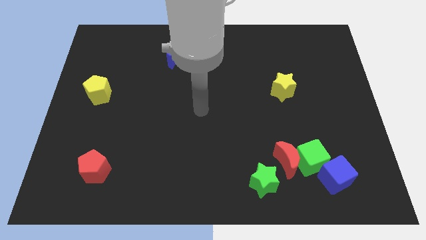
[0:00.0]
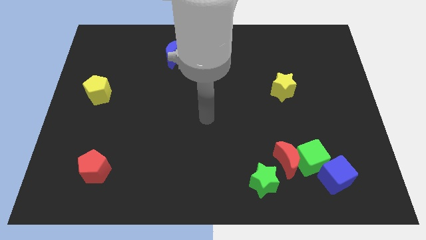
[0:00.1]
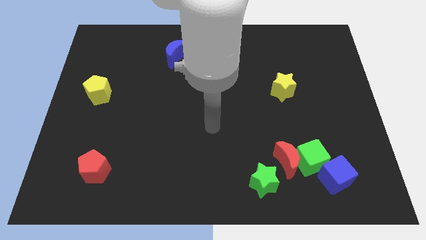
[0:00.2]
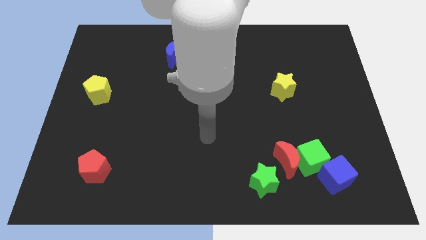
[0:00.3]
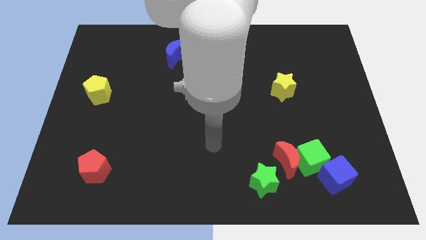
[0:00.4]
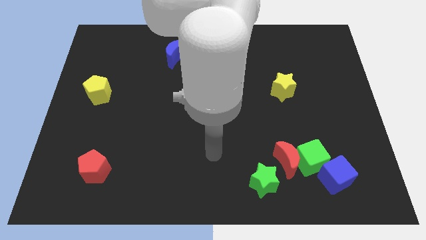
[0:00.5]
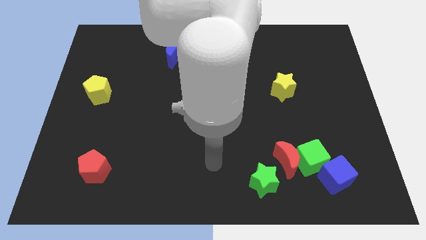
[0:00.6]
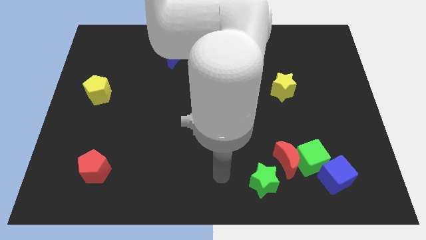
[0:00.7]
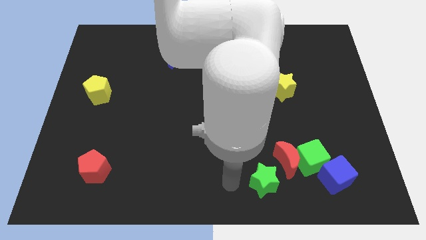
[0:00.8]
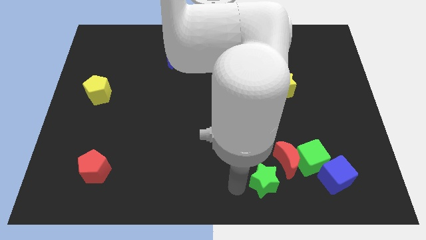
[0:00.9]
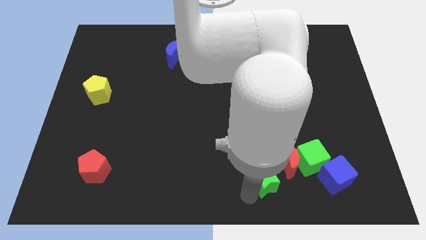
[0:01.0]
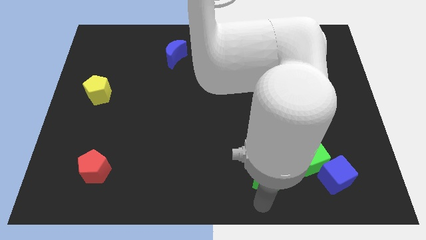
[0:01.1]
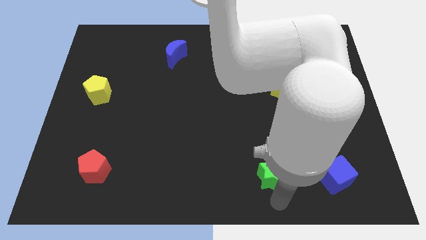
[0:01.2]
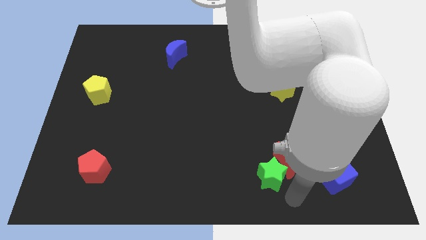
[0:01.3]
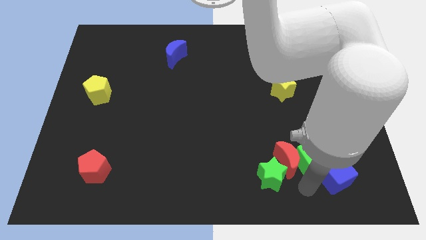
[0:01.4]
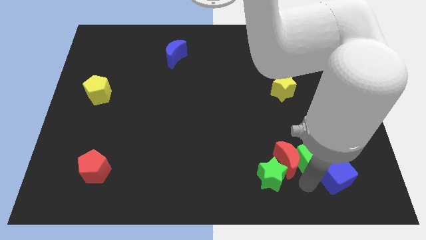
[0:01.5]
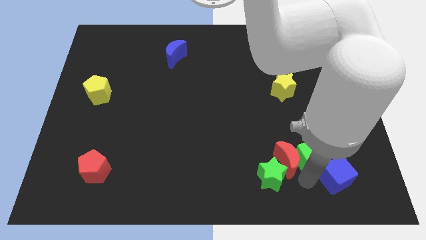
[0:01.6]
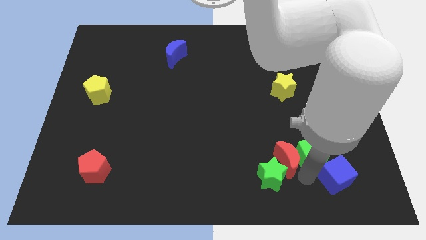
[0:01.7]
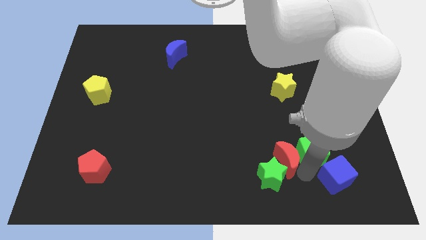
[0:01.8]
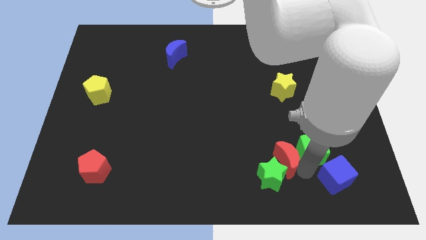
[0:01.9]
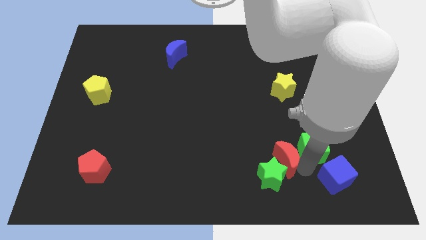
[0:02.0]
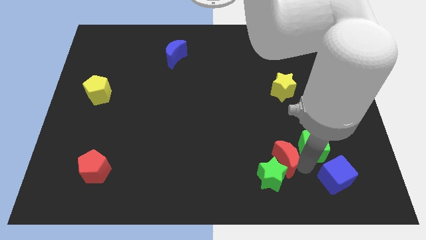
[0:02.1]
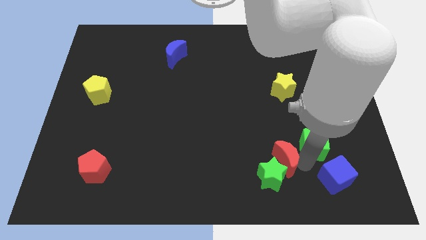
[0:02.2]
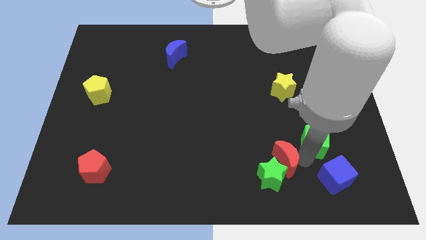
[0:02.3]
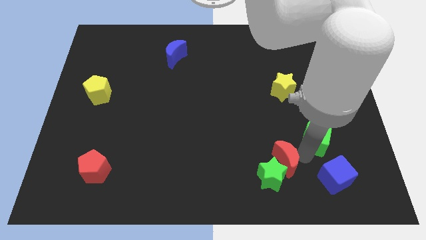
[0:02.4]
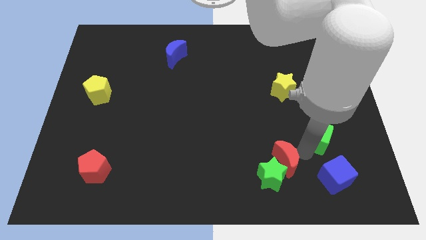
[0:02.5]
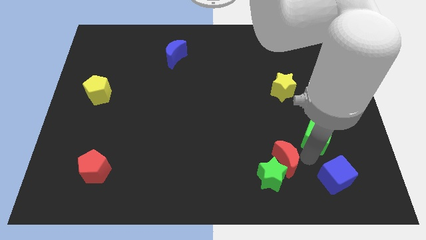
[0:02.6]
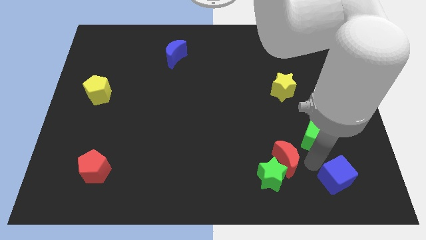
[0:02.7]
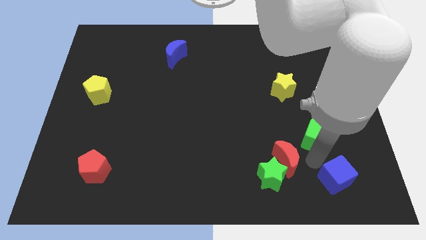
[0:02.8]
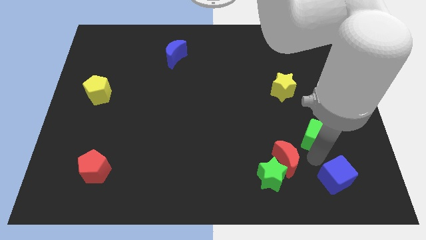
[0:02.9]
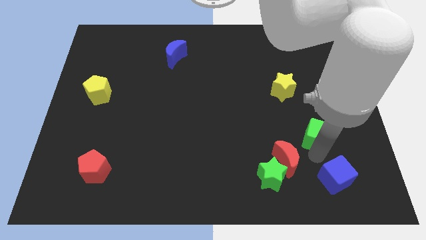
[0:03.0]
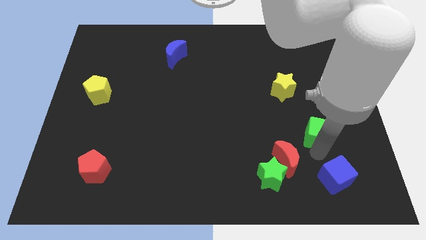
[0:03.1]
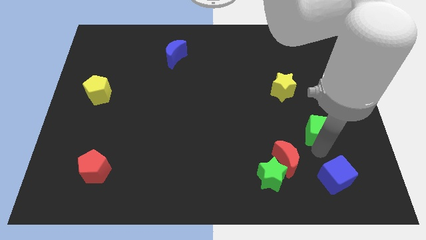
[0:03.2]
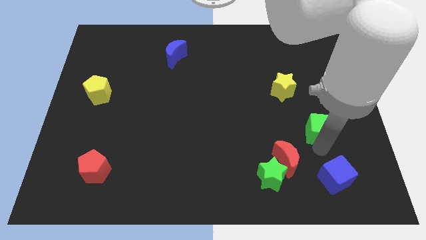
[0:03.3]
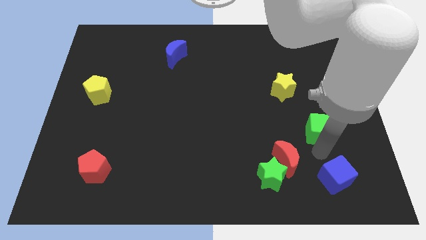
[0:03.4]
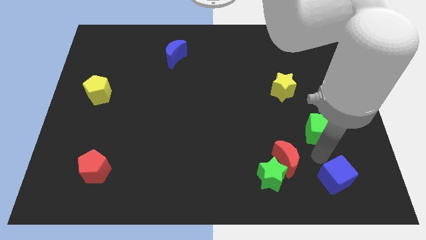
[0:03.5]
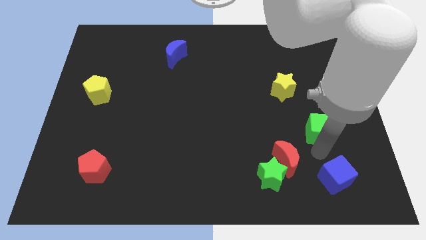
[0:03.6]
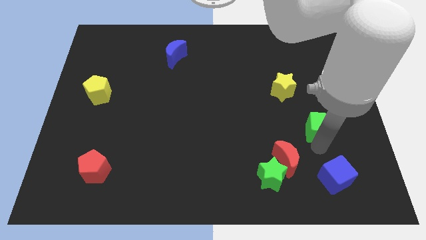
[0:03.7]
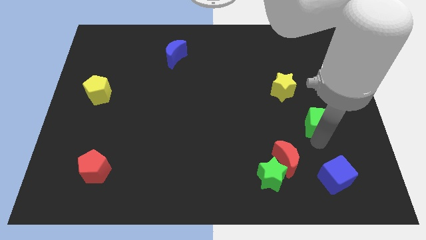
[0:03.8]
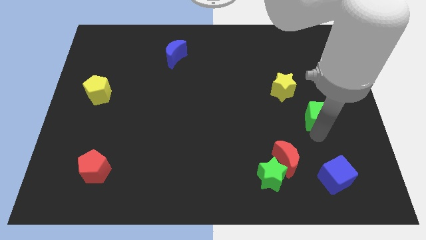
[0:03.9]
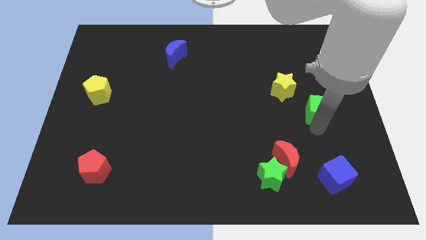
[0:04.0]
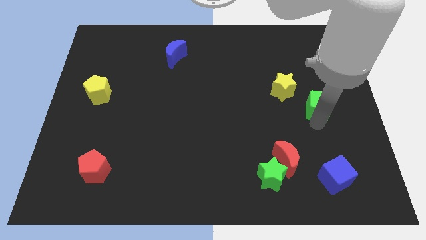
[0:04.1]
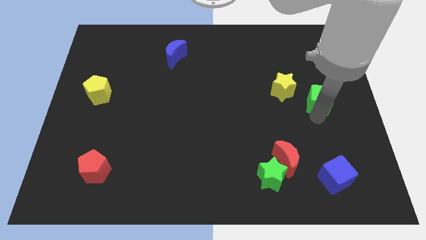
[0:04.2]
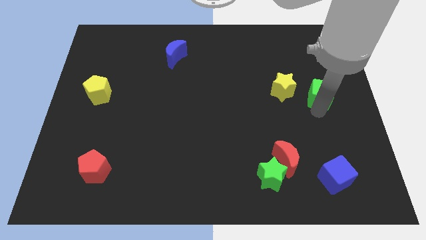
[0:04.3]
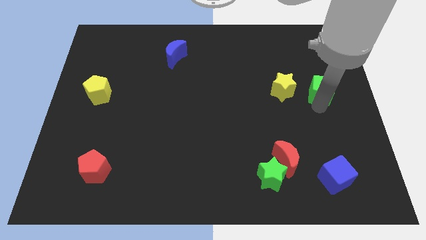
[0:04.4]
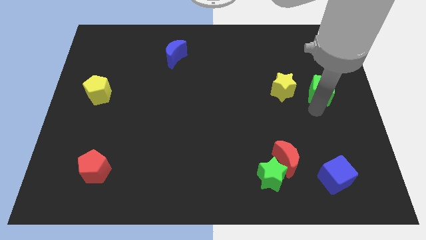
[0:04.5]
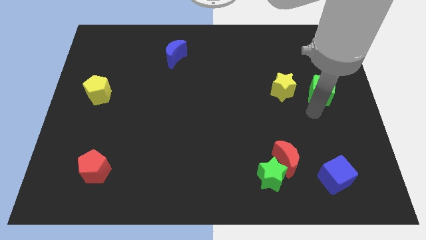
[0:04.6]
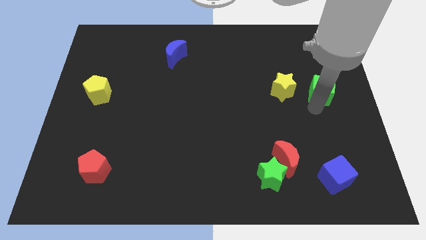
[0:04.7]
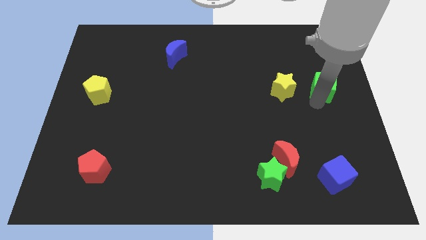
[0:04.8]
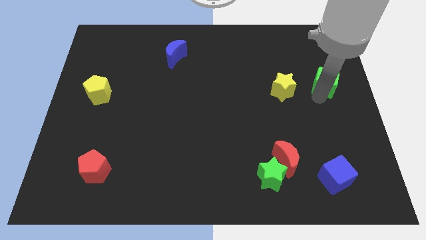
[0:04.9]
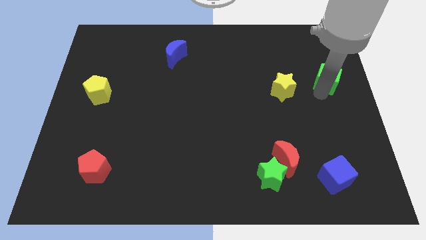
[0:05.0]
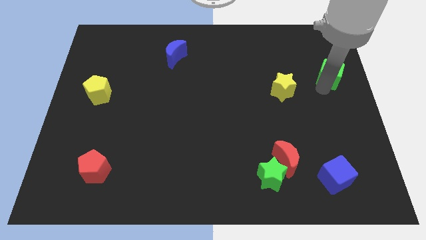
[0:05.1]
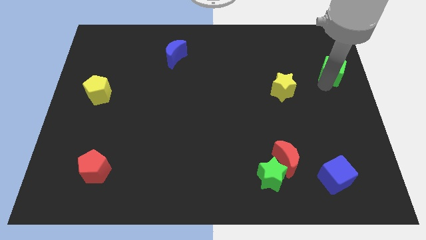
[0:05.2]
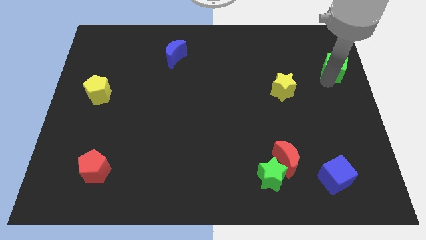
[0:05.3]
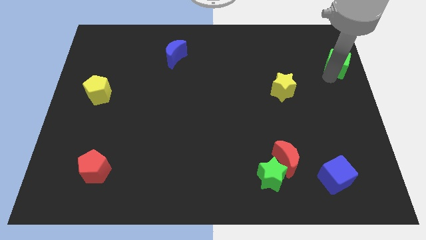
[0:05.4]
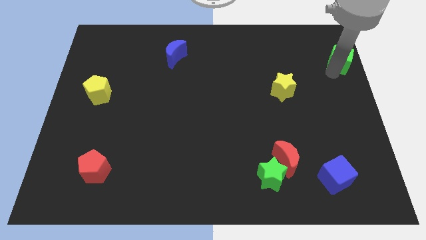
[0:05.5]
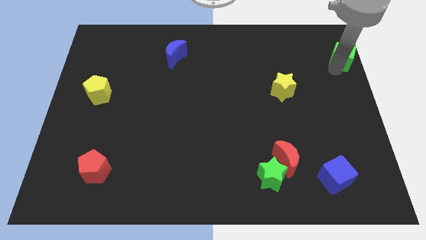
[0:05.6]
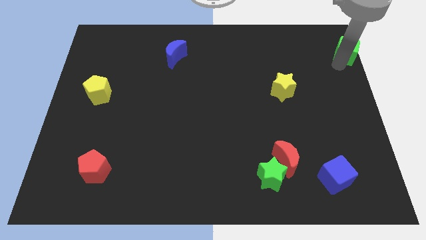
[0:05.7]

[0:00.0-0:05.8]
slide the green cube to the top right of the board

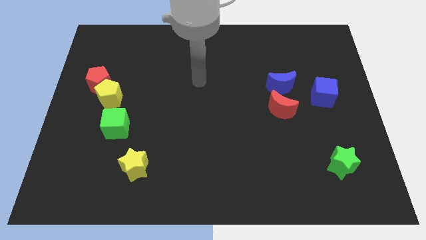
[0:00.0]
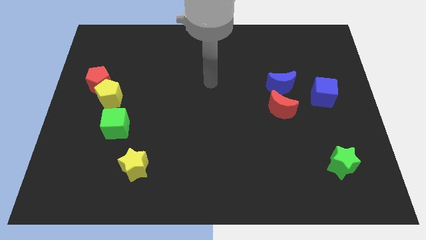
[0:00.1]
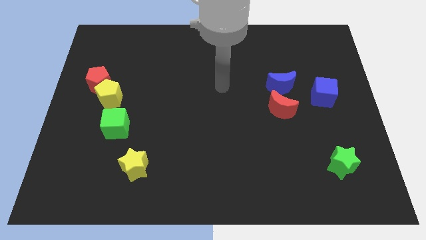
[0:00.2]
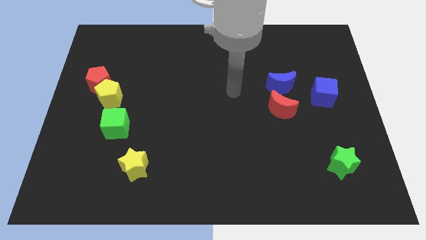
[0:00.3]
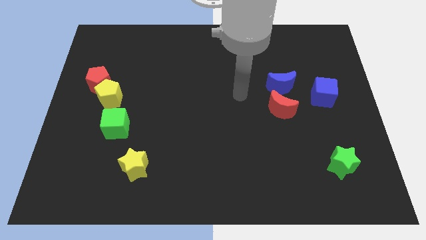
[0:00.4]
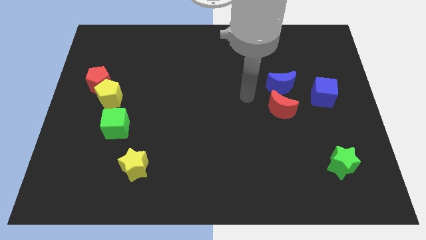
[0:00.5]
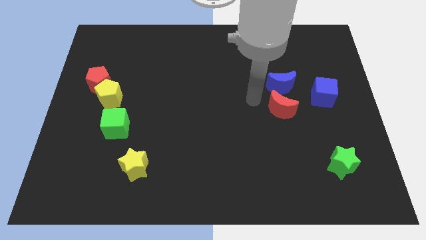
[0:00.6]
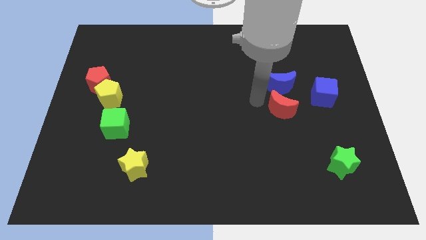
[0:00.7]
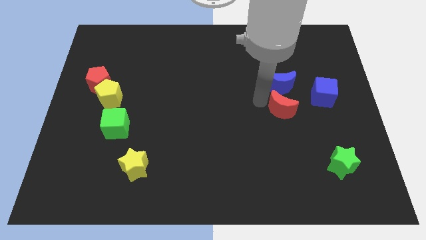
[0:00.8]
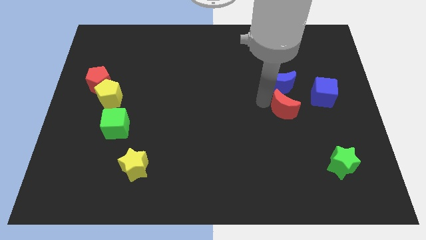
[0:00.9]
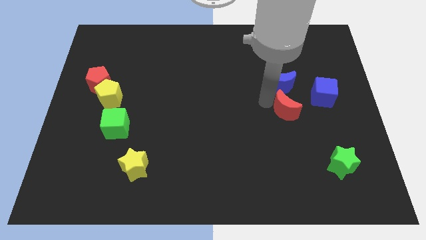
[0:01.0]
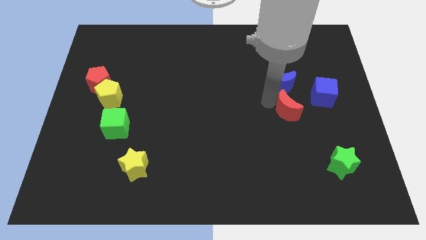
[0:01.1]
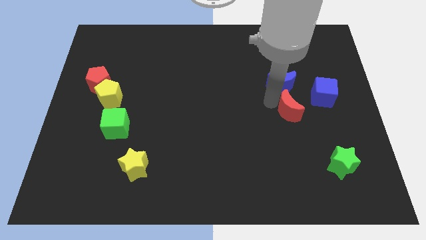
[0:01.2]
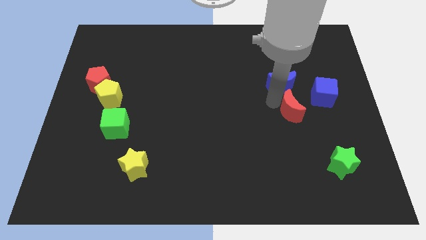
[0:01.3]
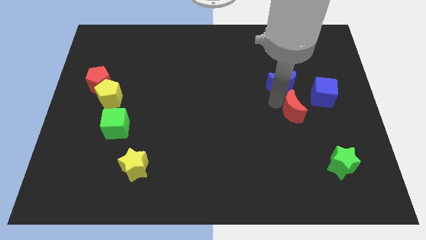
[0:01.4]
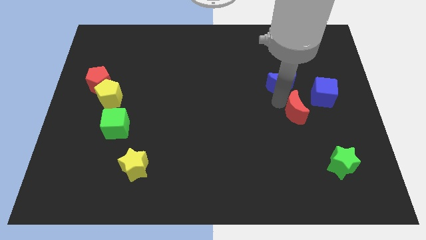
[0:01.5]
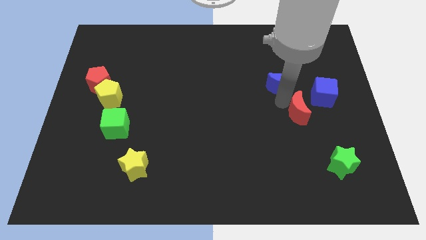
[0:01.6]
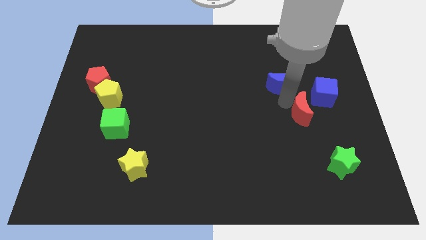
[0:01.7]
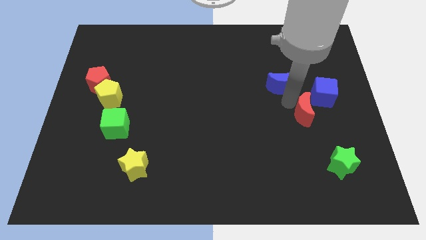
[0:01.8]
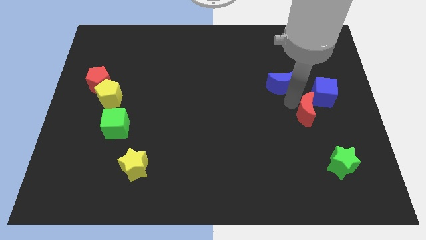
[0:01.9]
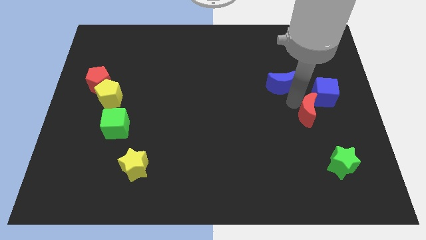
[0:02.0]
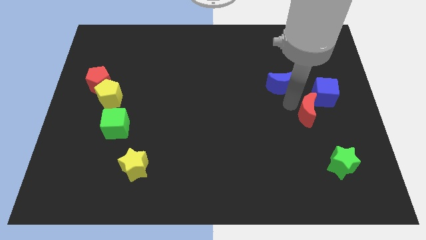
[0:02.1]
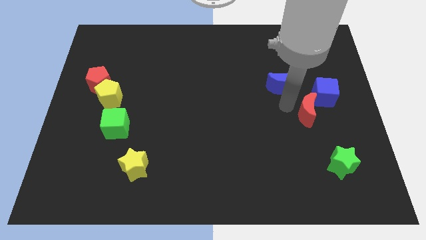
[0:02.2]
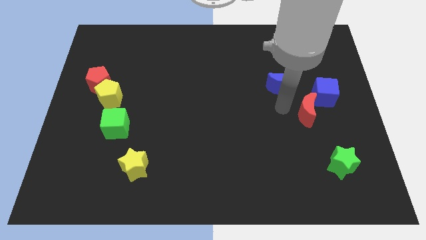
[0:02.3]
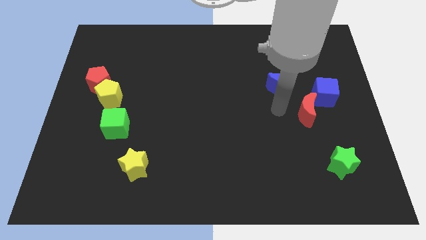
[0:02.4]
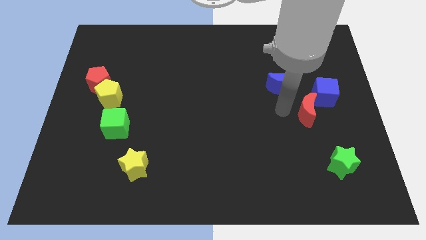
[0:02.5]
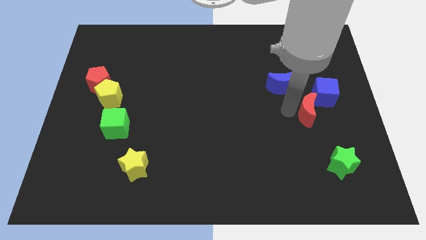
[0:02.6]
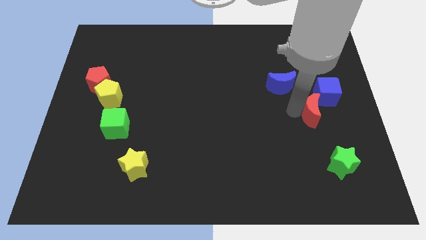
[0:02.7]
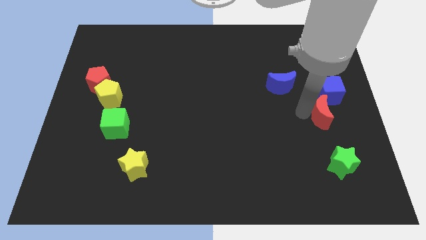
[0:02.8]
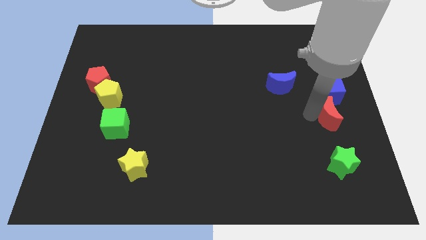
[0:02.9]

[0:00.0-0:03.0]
push the red moon to the center right
